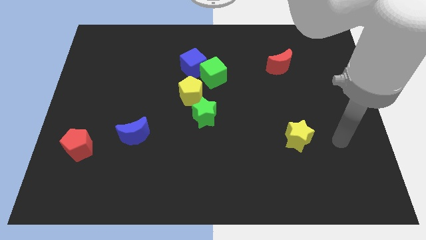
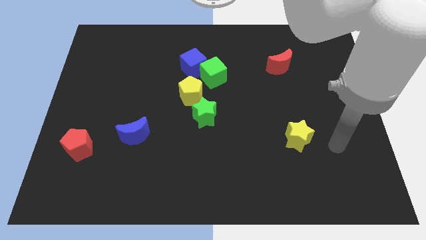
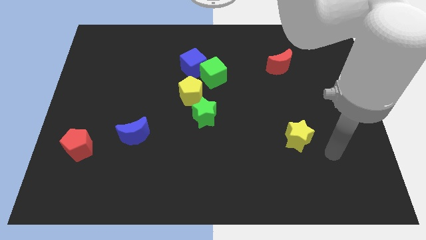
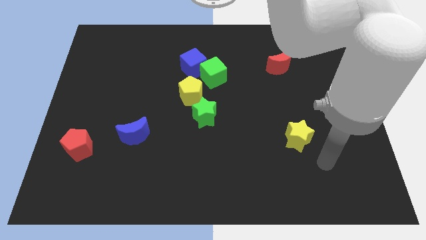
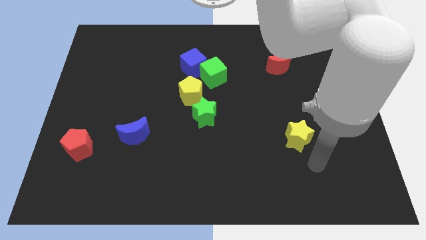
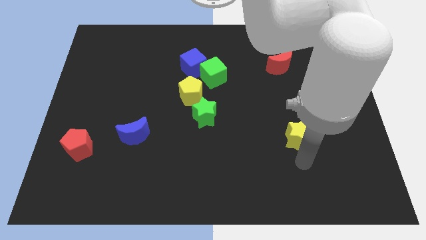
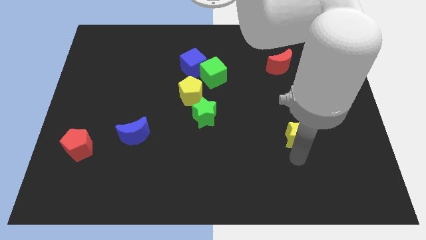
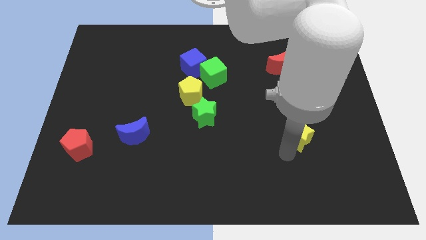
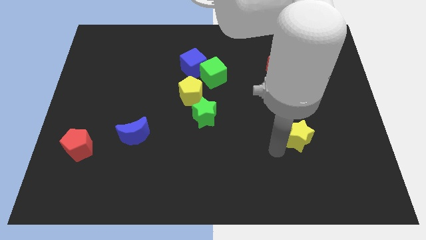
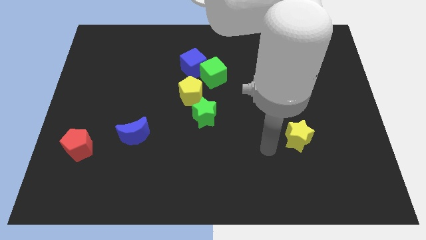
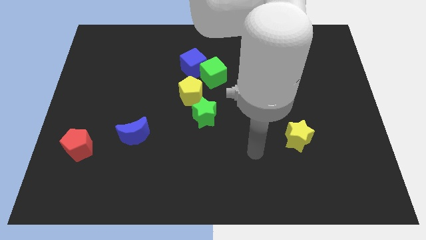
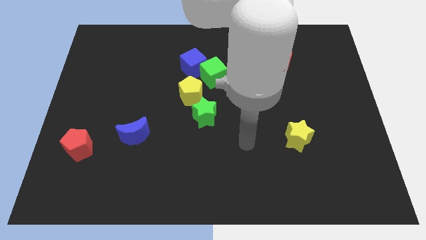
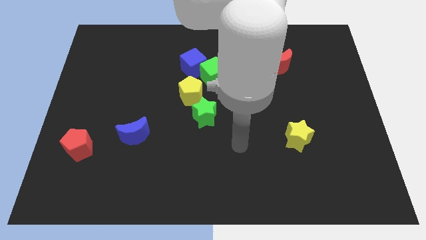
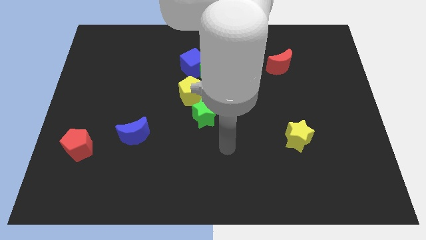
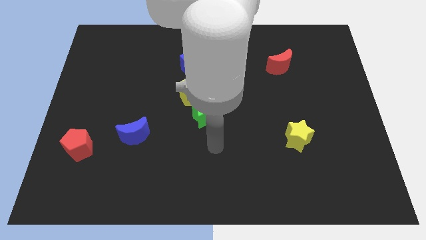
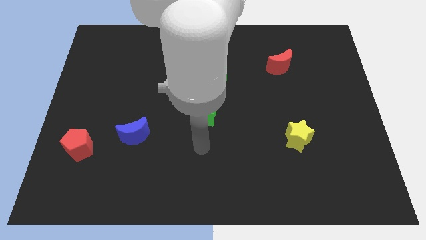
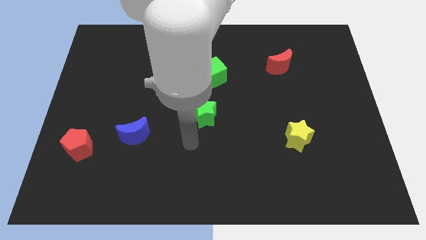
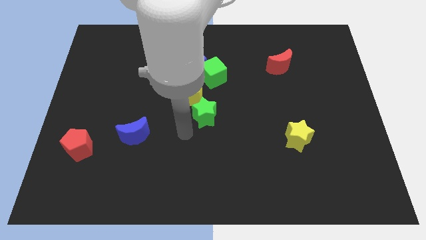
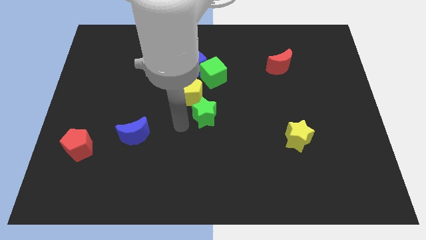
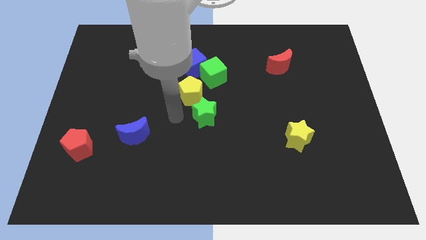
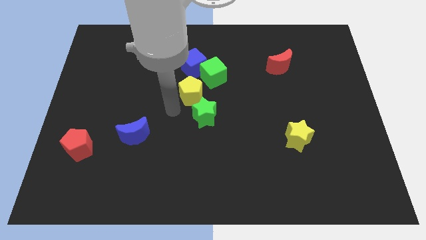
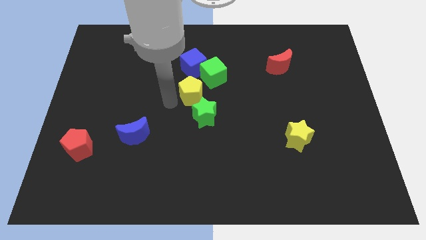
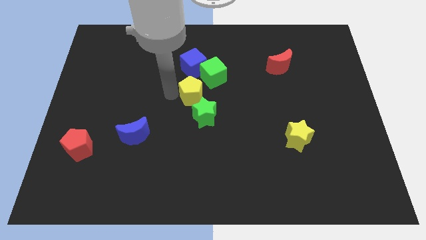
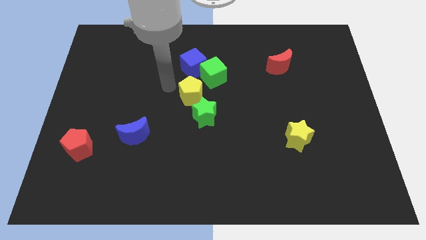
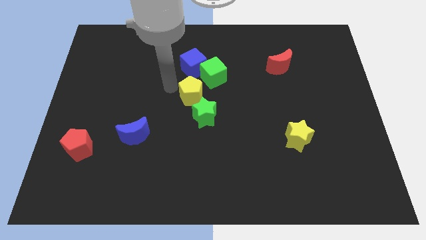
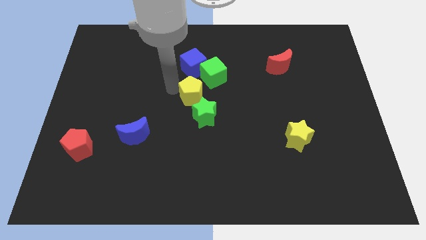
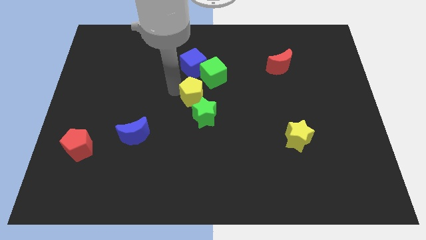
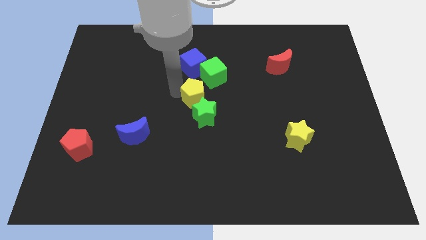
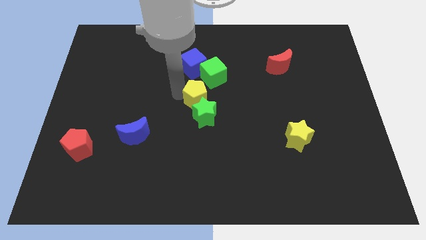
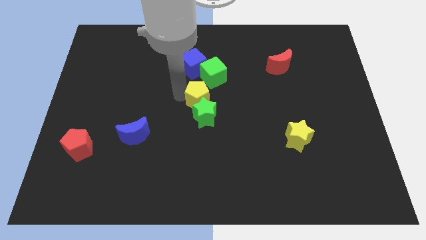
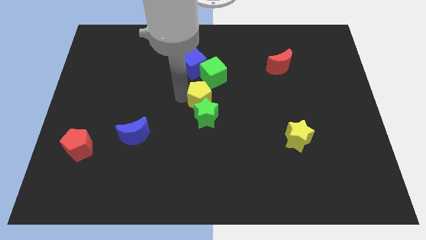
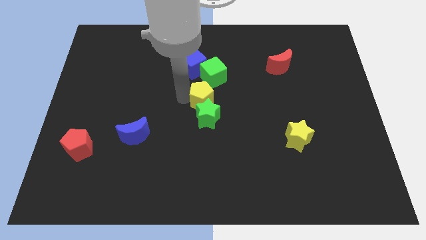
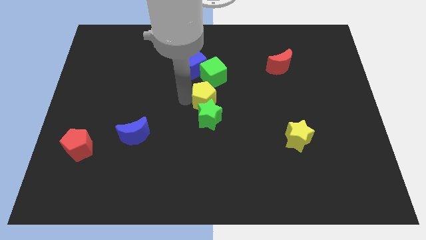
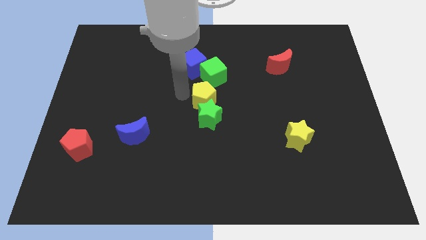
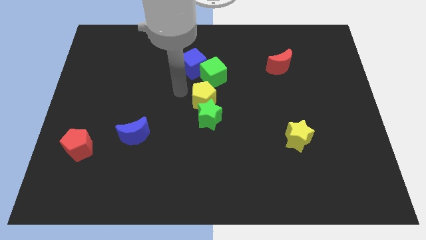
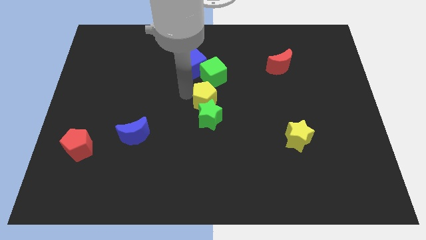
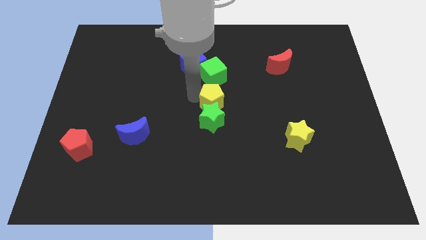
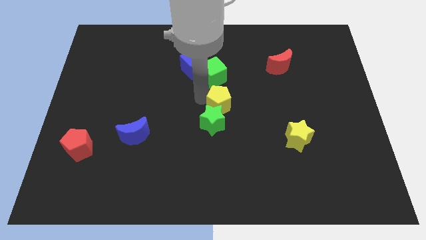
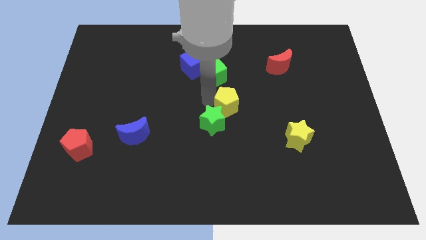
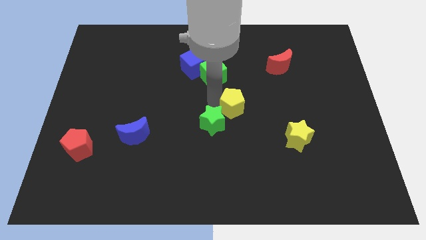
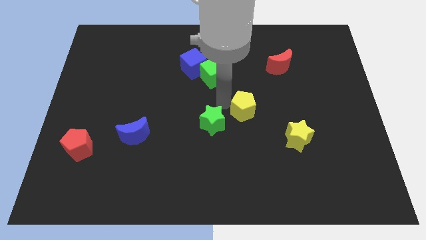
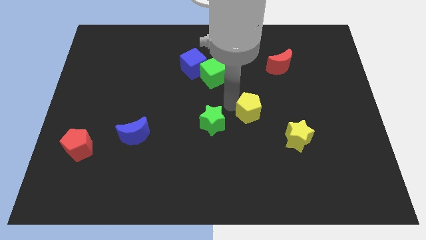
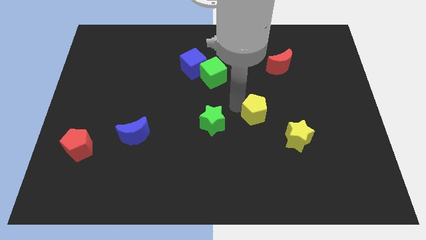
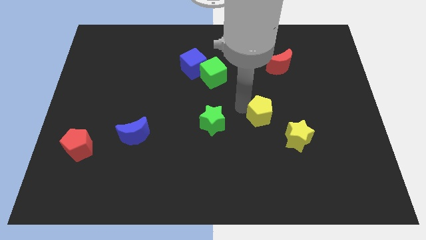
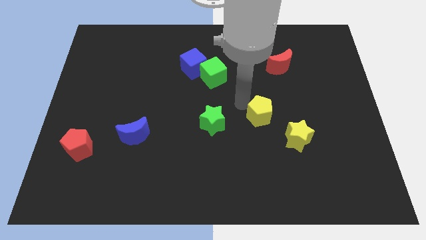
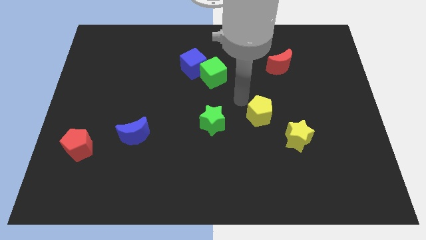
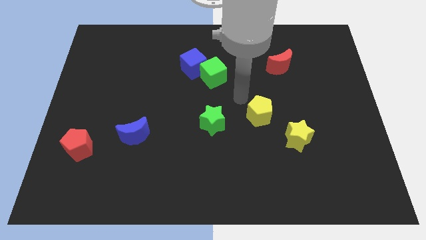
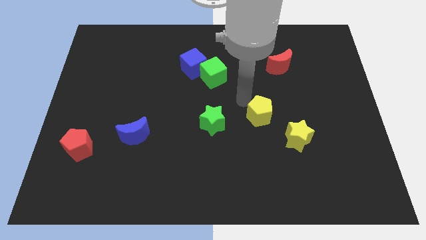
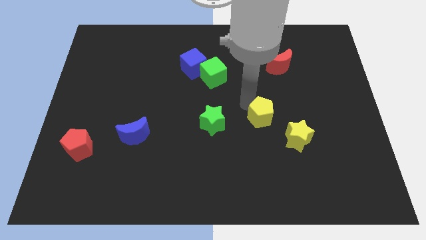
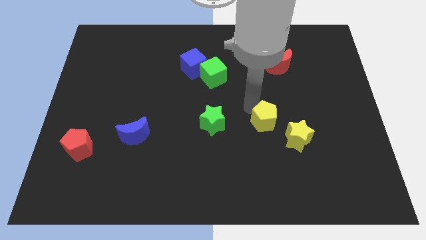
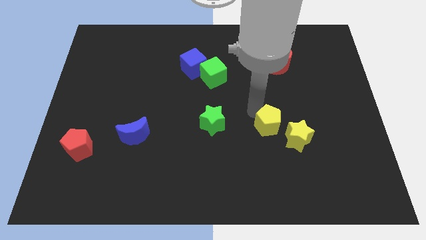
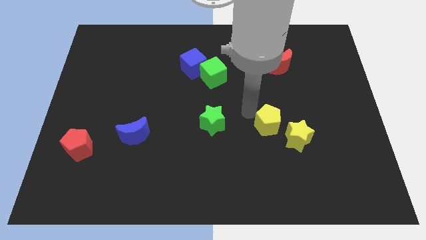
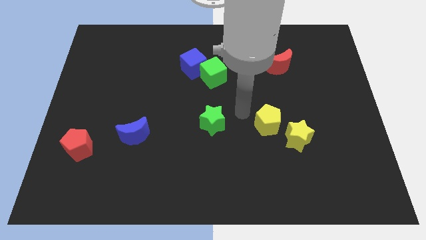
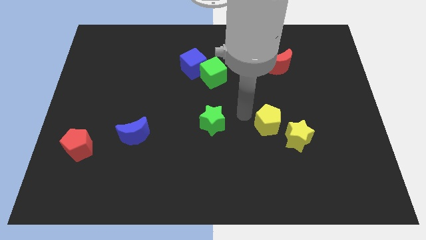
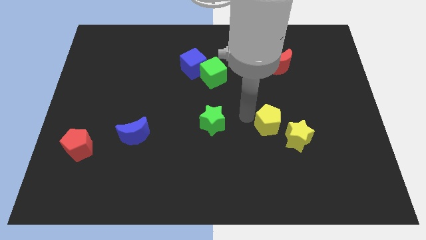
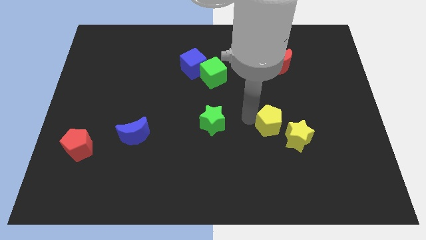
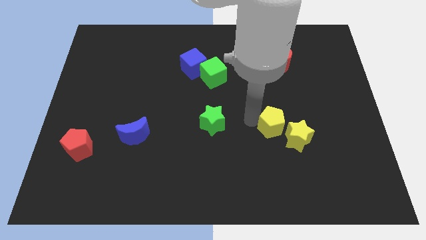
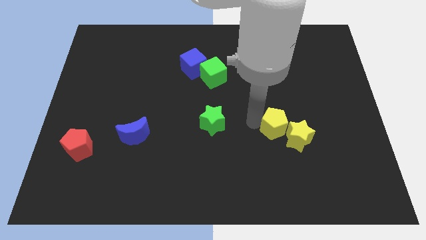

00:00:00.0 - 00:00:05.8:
move the yellow pentagon towards the yellow star

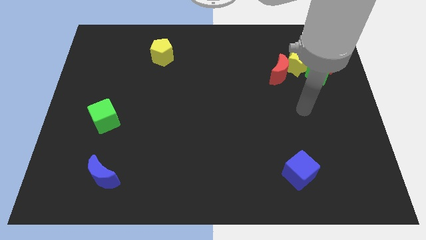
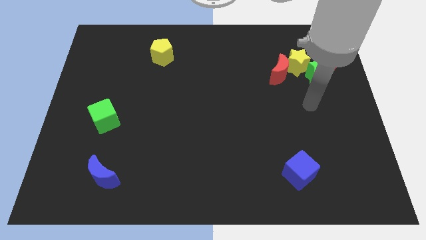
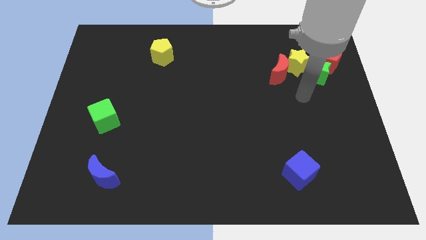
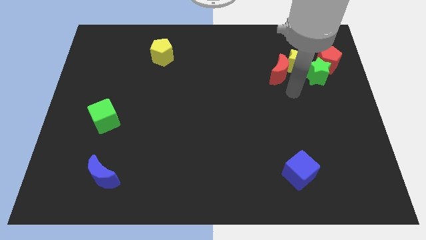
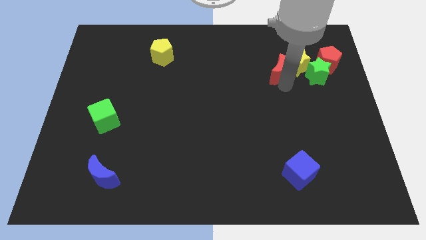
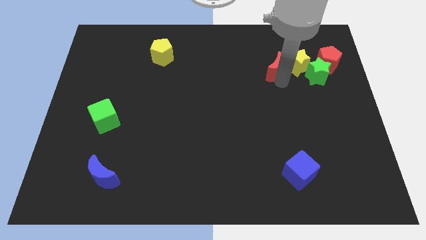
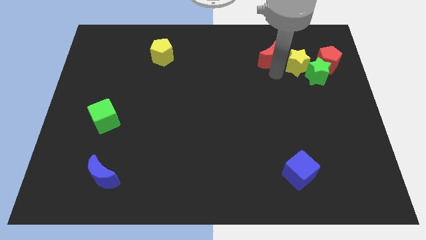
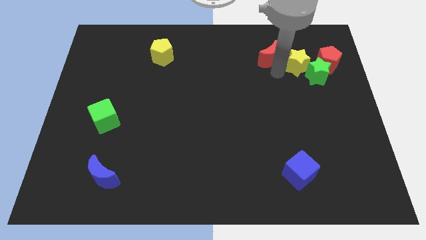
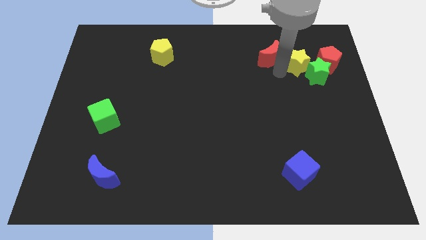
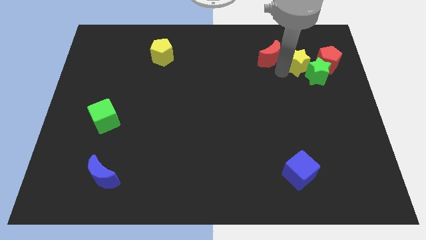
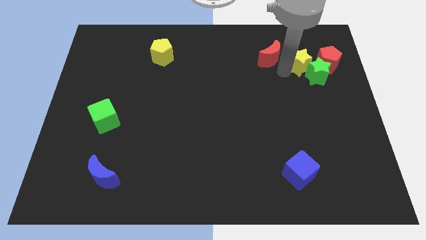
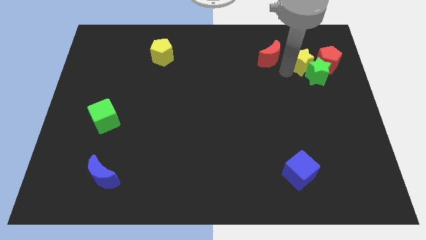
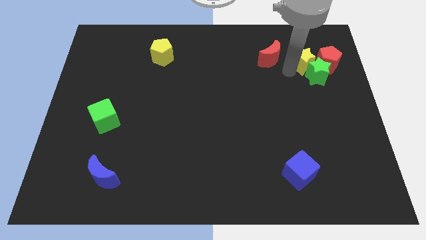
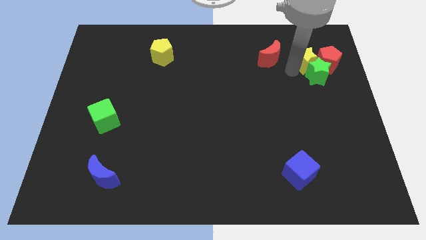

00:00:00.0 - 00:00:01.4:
put the yellow star towards the red pentagon
